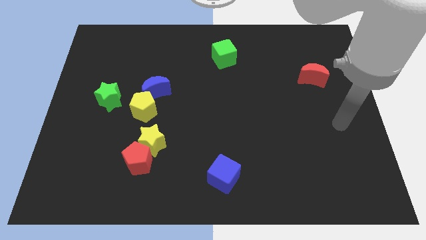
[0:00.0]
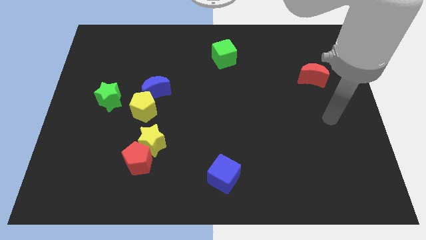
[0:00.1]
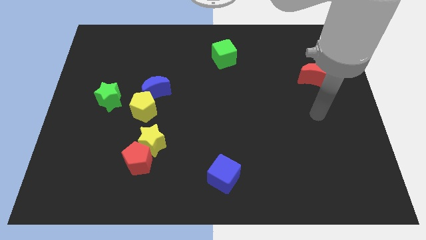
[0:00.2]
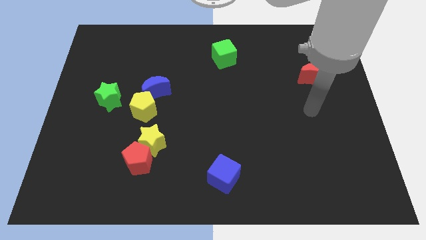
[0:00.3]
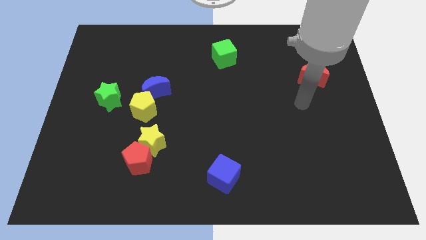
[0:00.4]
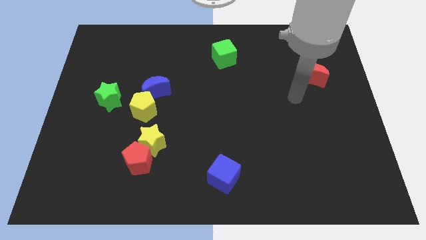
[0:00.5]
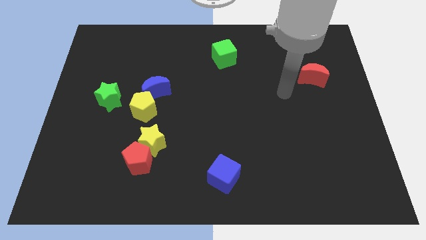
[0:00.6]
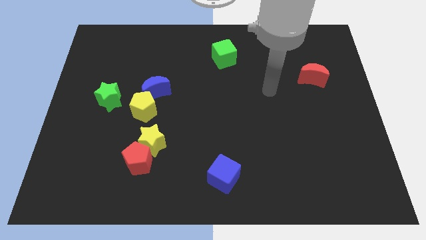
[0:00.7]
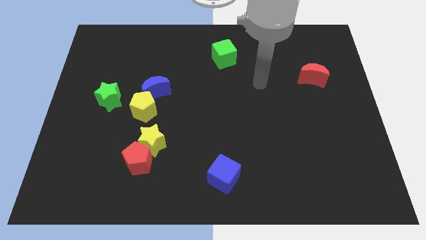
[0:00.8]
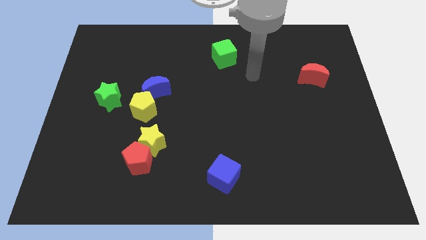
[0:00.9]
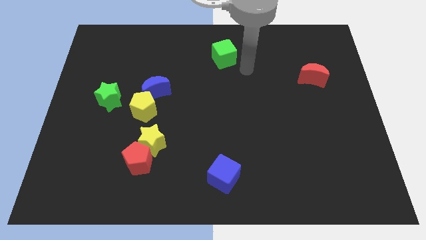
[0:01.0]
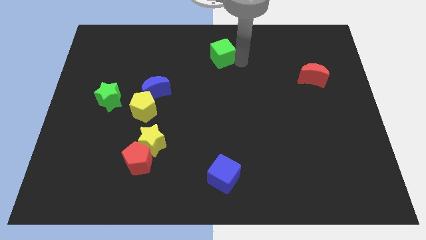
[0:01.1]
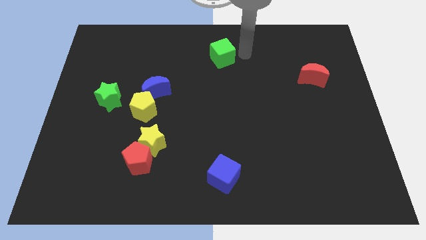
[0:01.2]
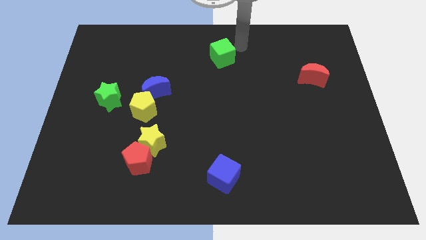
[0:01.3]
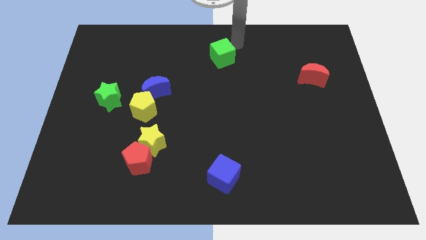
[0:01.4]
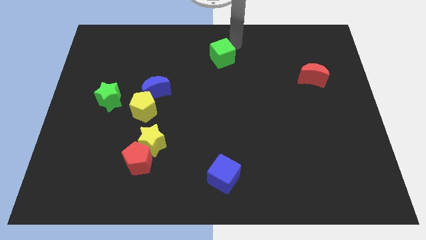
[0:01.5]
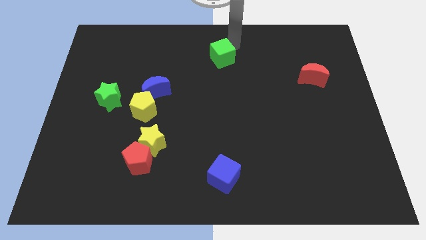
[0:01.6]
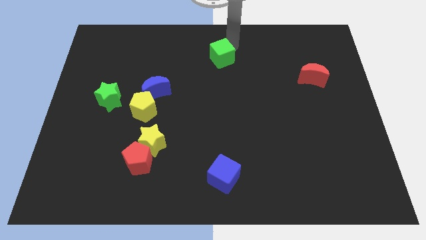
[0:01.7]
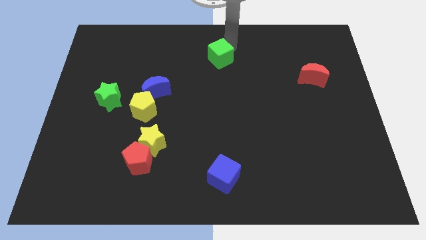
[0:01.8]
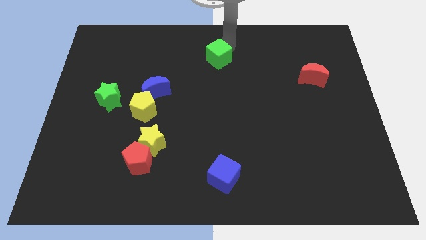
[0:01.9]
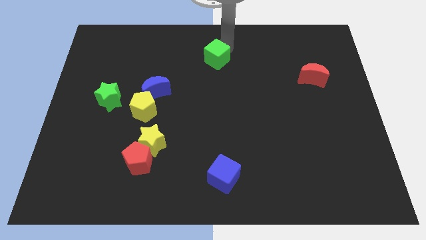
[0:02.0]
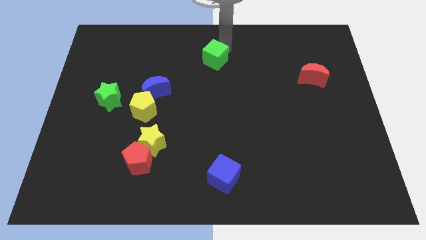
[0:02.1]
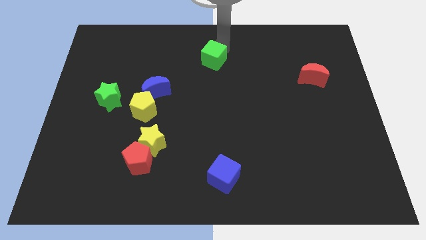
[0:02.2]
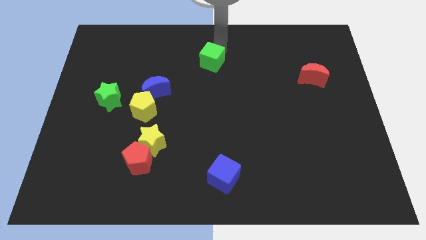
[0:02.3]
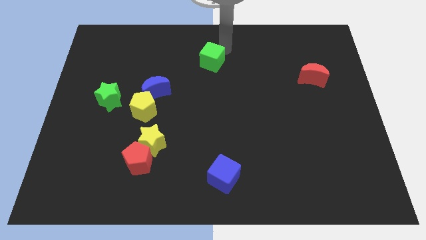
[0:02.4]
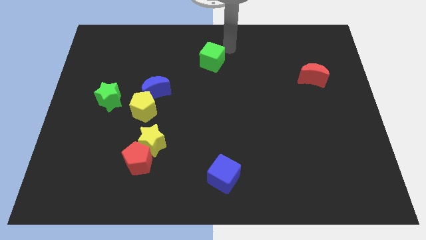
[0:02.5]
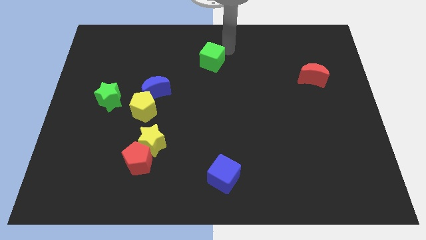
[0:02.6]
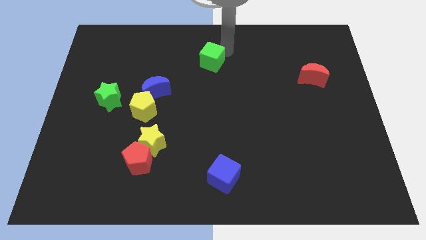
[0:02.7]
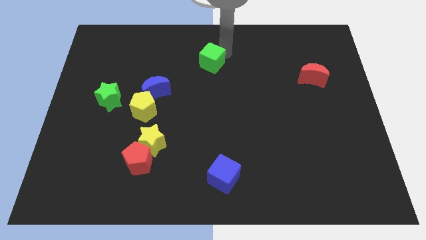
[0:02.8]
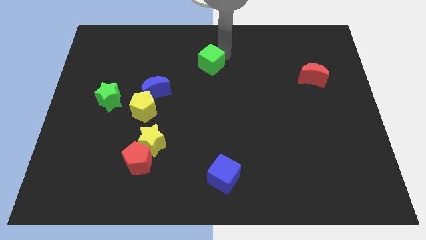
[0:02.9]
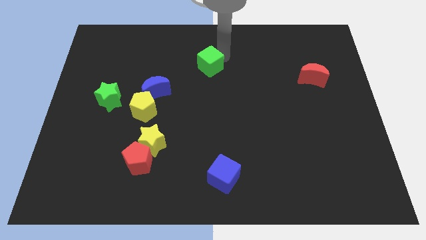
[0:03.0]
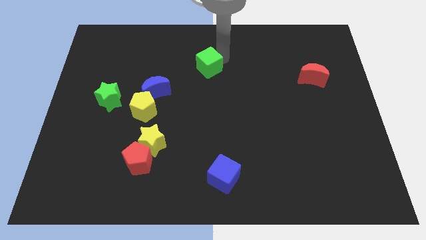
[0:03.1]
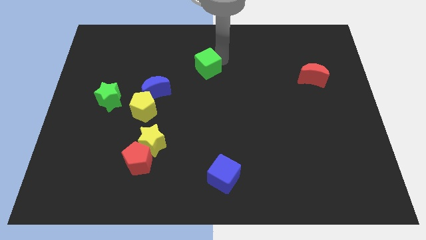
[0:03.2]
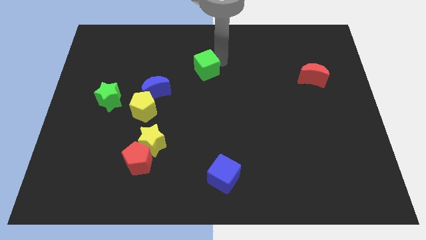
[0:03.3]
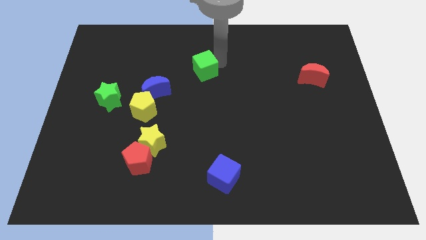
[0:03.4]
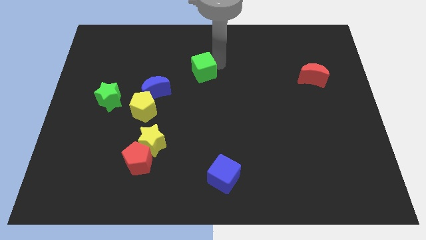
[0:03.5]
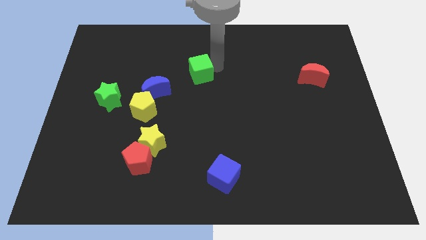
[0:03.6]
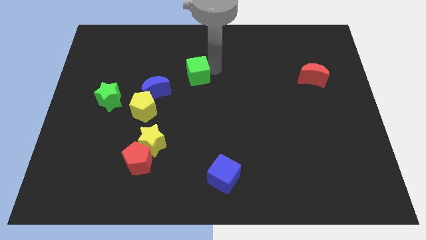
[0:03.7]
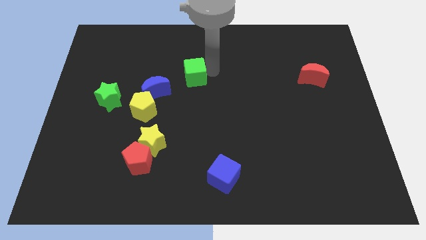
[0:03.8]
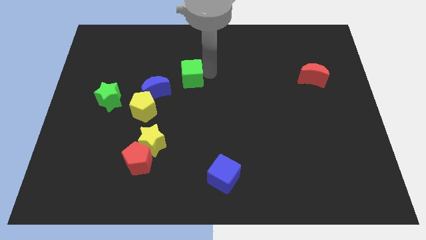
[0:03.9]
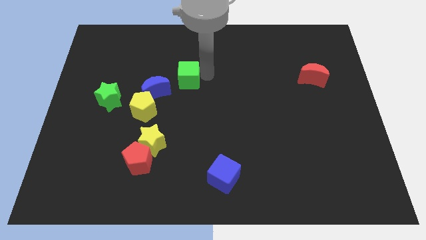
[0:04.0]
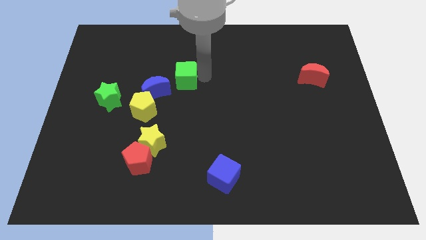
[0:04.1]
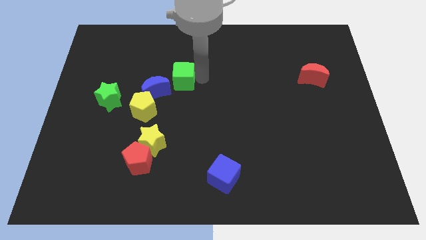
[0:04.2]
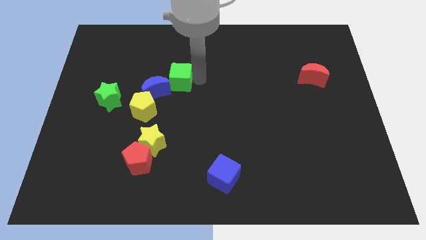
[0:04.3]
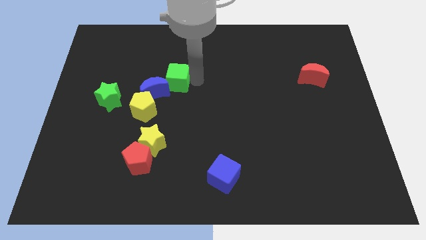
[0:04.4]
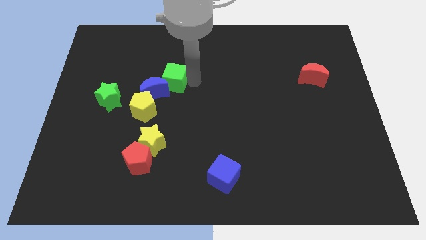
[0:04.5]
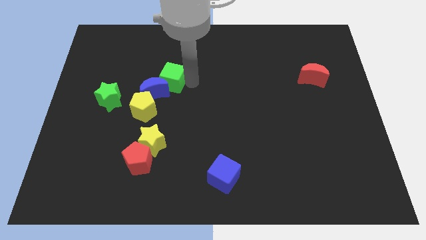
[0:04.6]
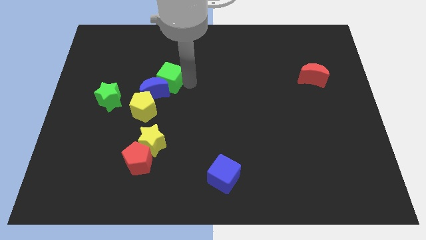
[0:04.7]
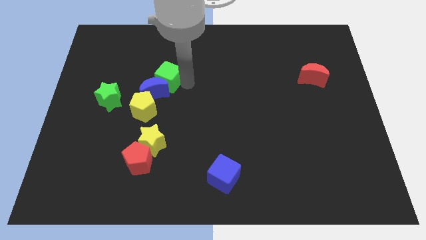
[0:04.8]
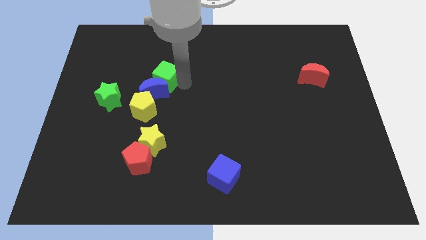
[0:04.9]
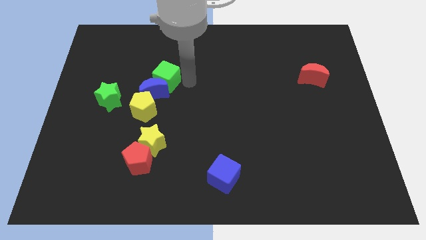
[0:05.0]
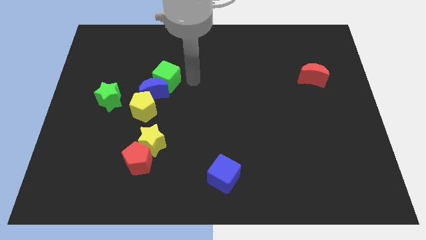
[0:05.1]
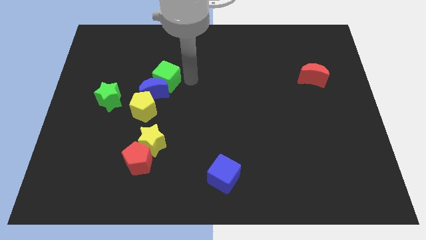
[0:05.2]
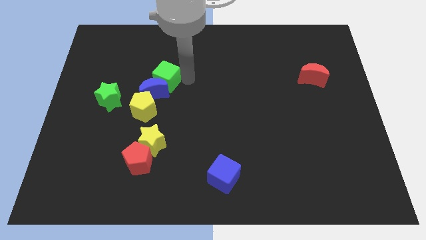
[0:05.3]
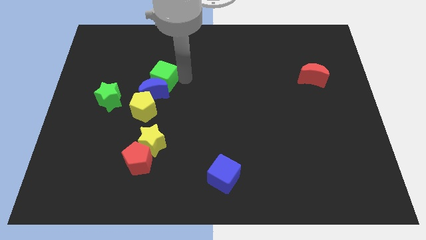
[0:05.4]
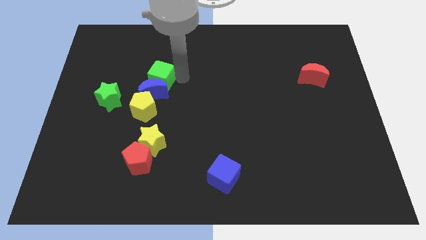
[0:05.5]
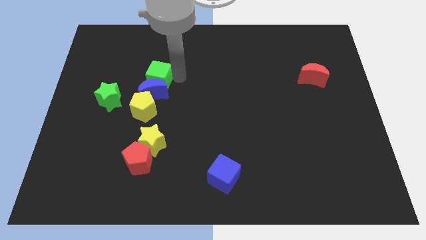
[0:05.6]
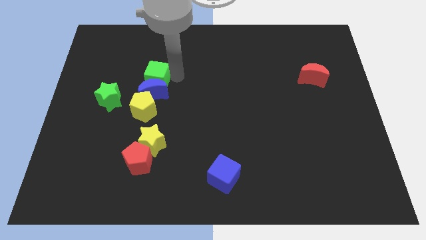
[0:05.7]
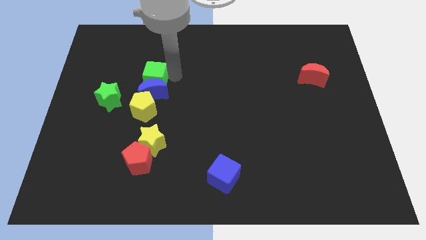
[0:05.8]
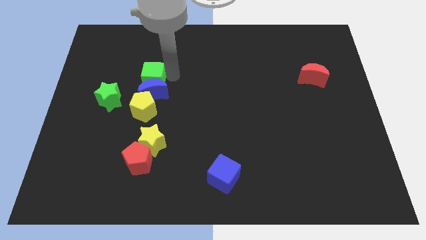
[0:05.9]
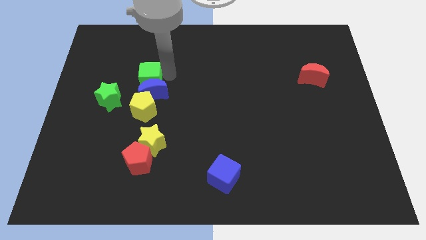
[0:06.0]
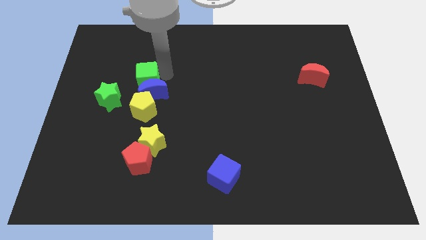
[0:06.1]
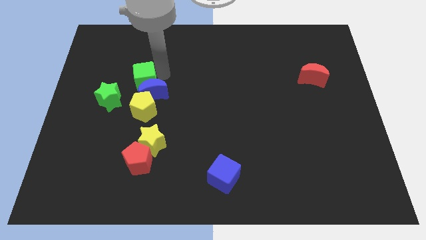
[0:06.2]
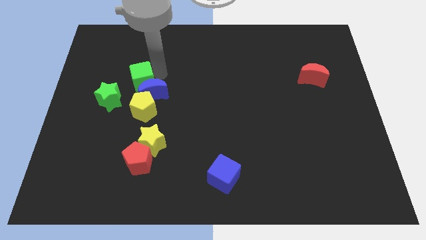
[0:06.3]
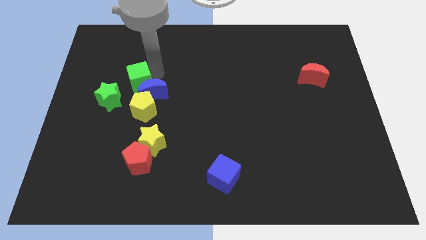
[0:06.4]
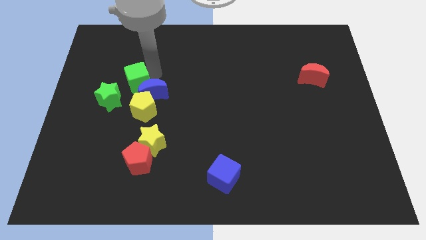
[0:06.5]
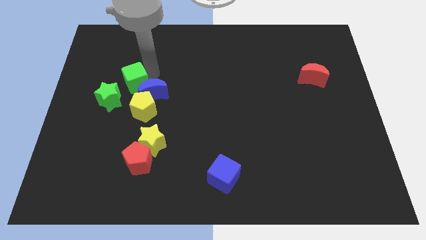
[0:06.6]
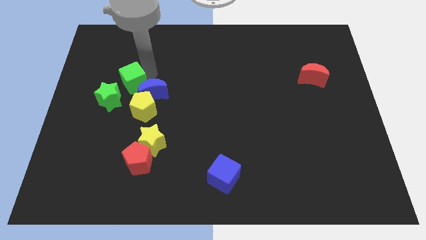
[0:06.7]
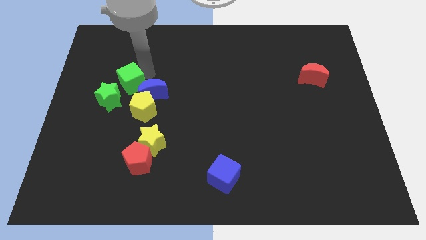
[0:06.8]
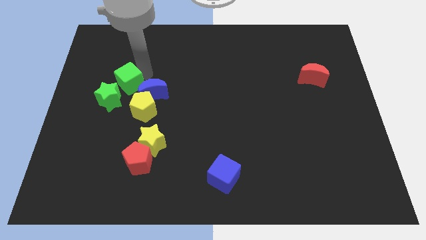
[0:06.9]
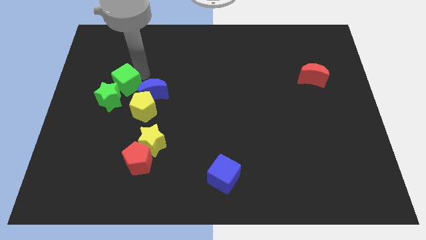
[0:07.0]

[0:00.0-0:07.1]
slide the green cube close to the green star
